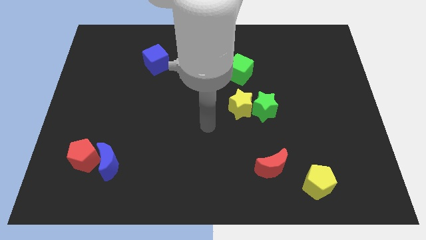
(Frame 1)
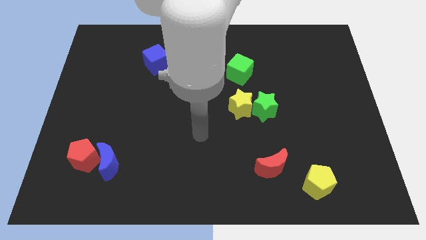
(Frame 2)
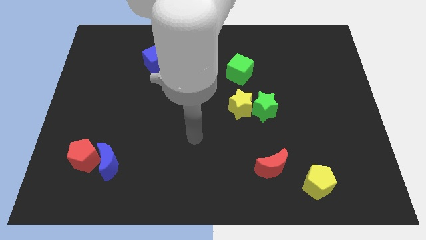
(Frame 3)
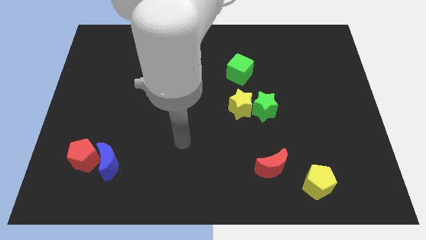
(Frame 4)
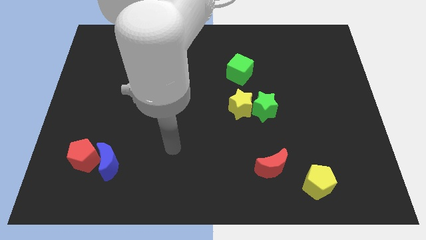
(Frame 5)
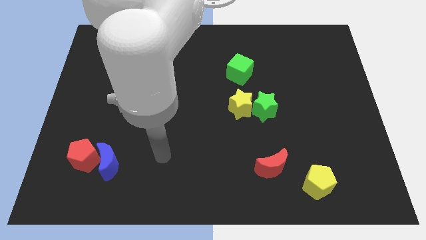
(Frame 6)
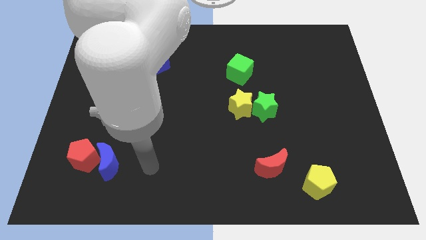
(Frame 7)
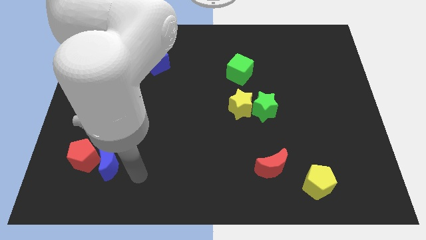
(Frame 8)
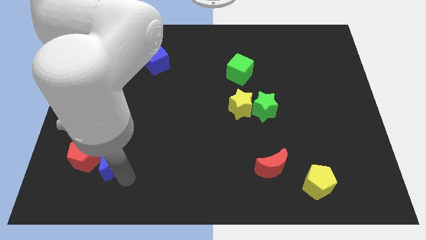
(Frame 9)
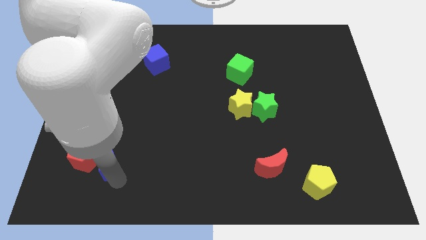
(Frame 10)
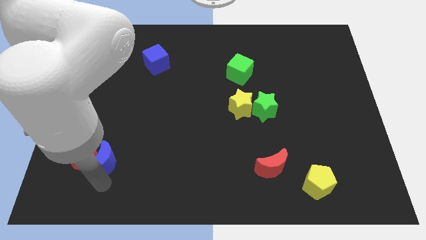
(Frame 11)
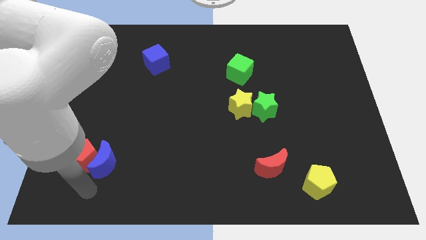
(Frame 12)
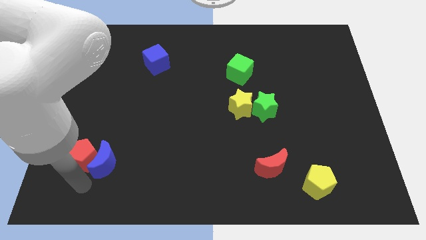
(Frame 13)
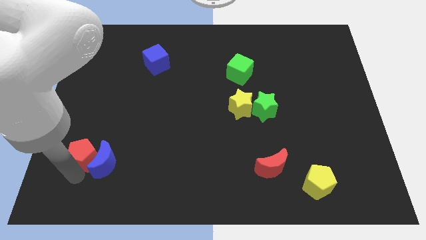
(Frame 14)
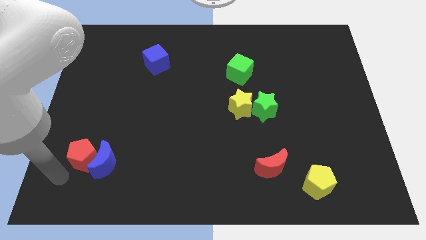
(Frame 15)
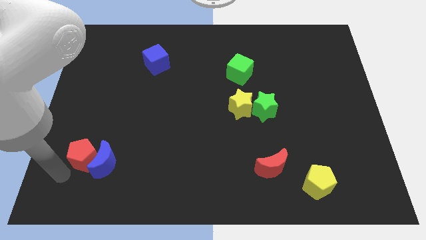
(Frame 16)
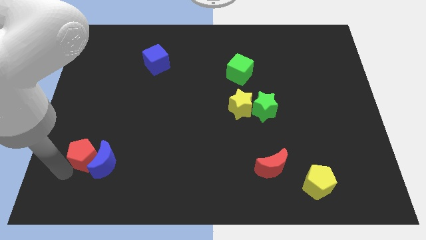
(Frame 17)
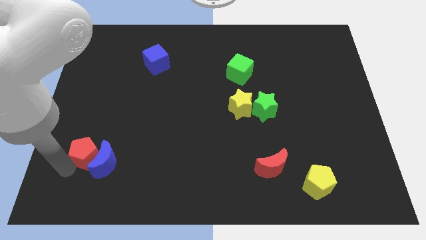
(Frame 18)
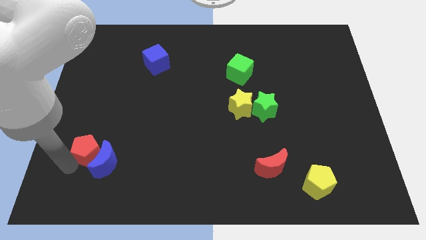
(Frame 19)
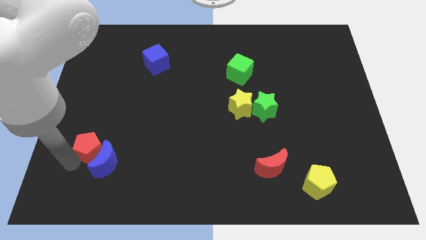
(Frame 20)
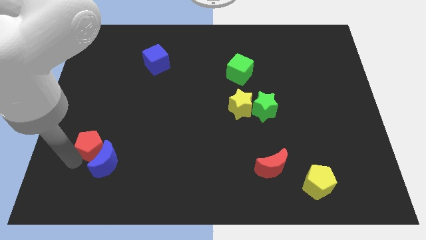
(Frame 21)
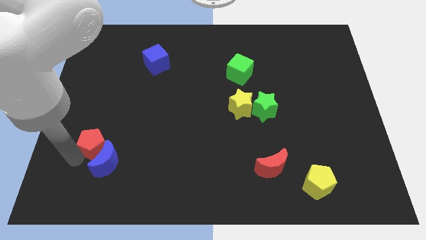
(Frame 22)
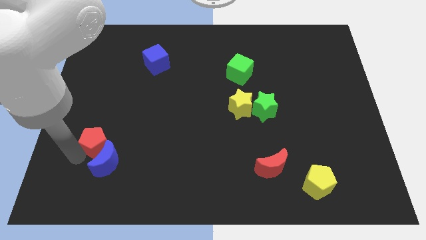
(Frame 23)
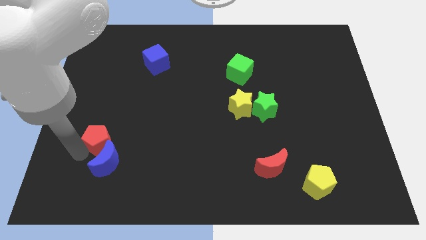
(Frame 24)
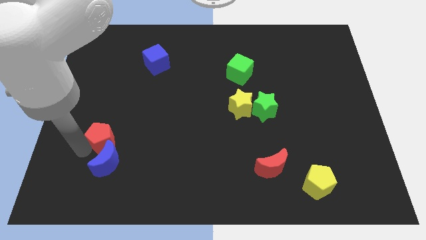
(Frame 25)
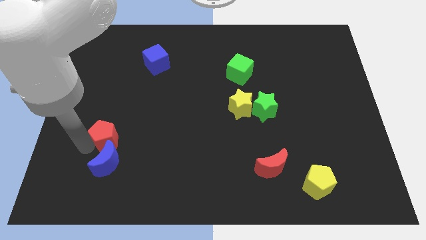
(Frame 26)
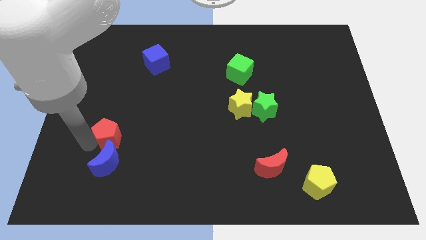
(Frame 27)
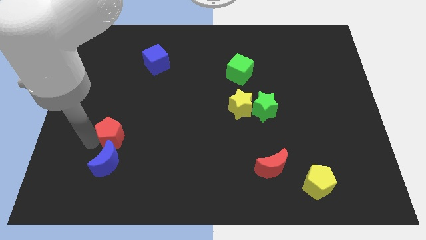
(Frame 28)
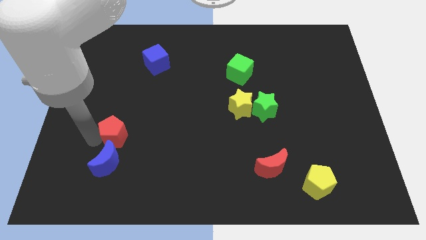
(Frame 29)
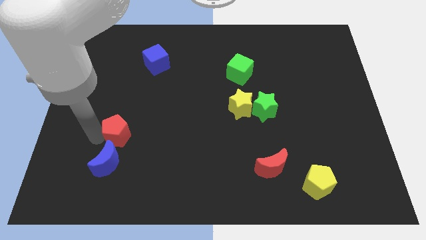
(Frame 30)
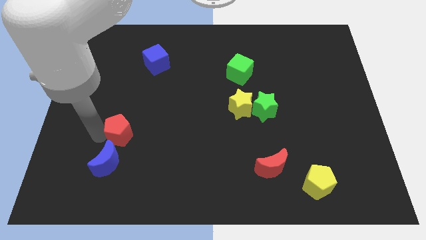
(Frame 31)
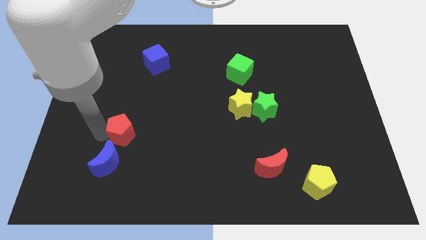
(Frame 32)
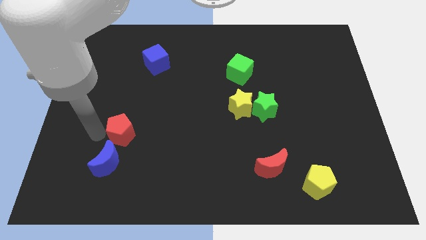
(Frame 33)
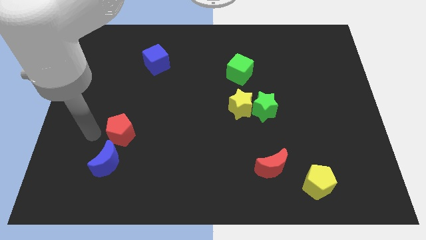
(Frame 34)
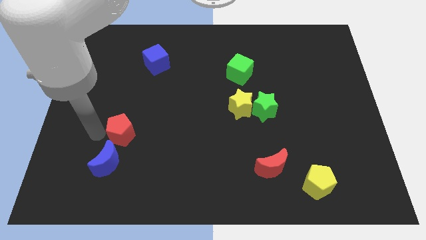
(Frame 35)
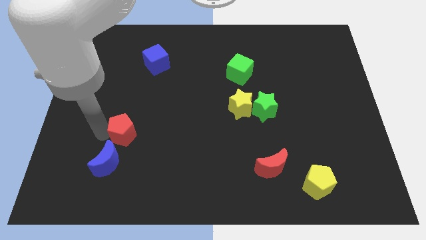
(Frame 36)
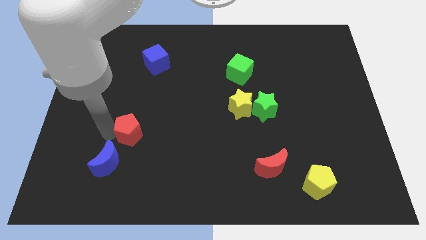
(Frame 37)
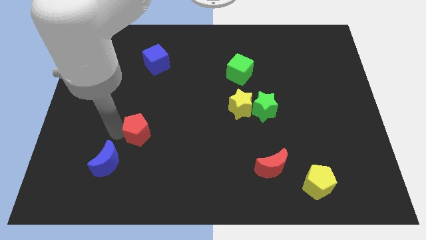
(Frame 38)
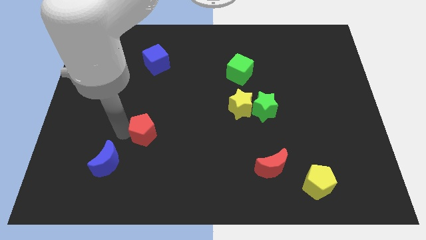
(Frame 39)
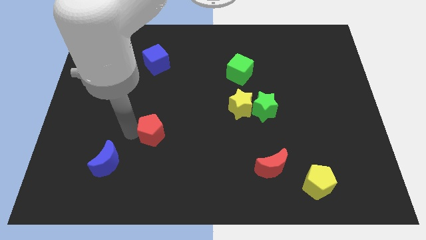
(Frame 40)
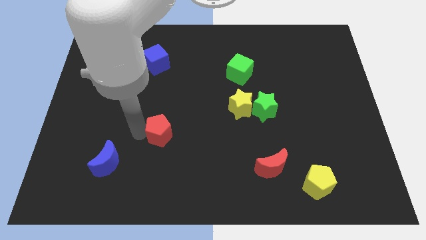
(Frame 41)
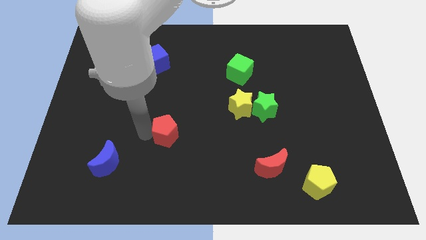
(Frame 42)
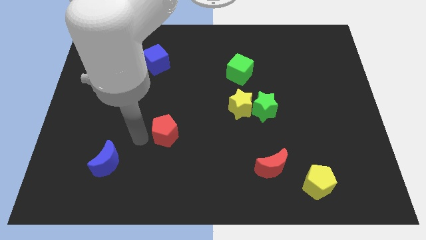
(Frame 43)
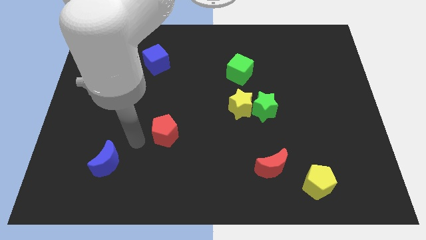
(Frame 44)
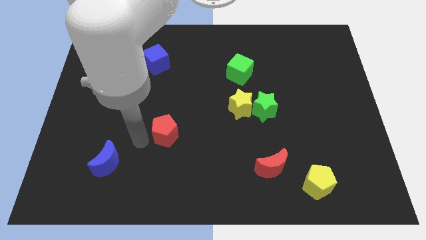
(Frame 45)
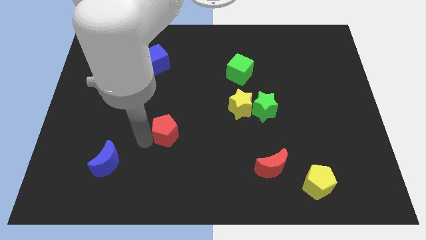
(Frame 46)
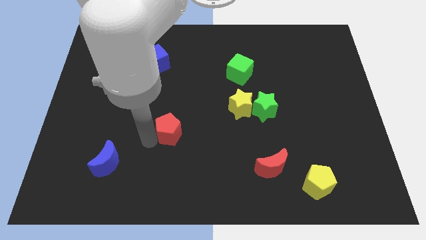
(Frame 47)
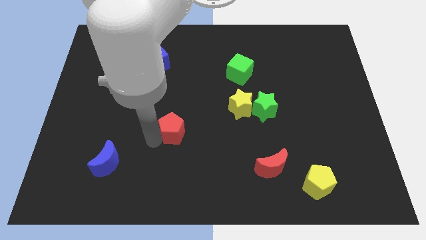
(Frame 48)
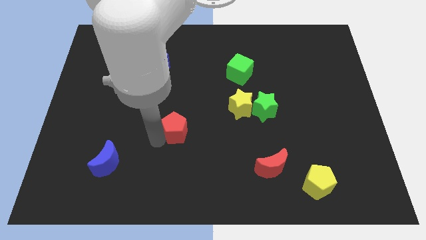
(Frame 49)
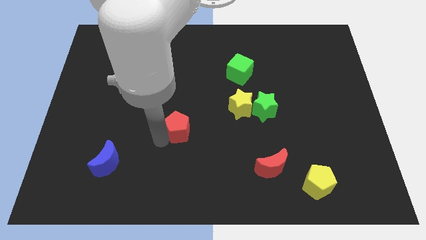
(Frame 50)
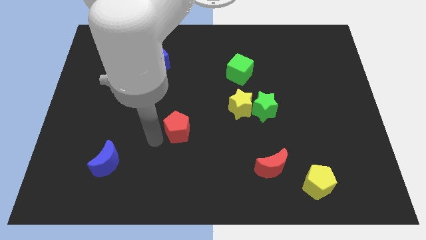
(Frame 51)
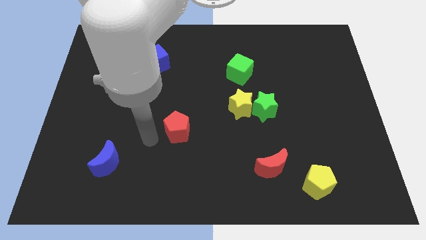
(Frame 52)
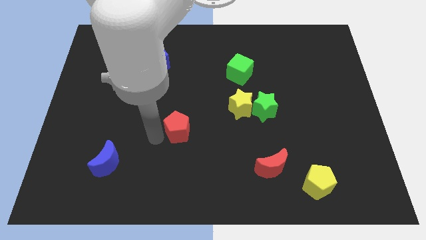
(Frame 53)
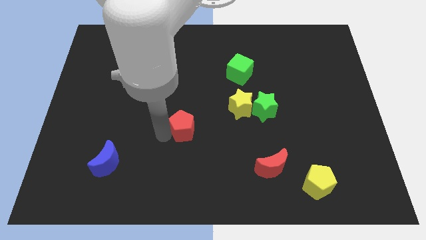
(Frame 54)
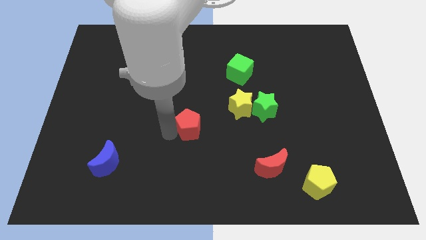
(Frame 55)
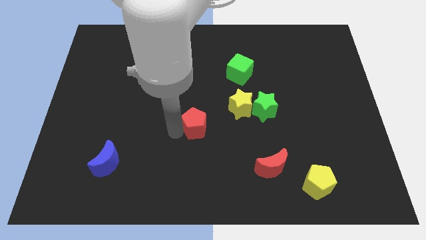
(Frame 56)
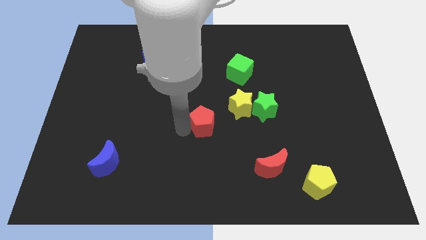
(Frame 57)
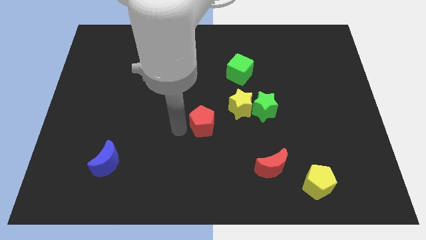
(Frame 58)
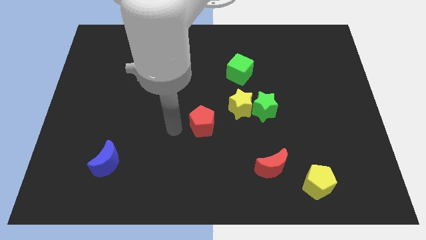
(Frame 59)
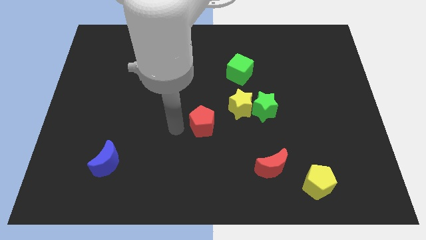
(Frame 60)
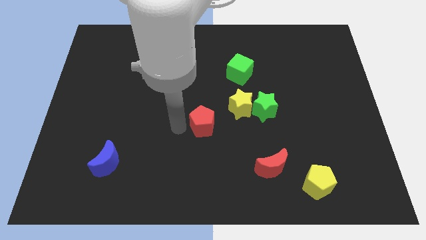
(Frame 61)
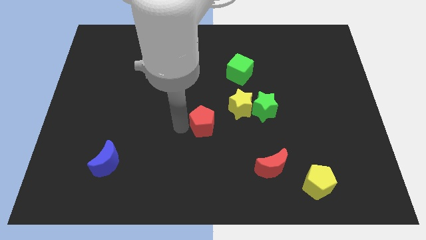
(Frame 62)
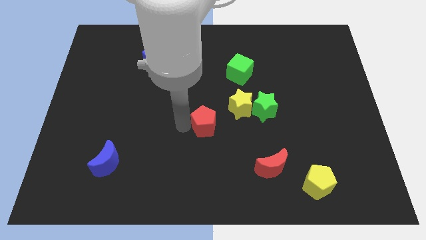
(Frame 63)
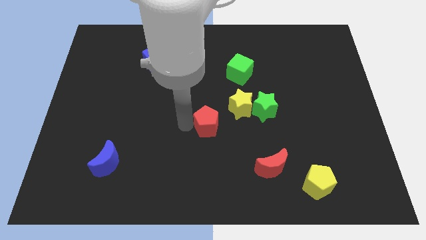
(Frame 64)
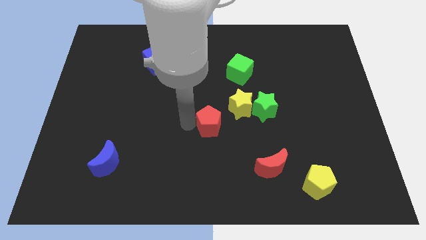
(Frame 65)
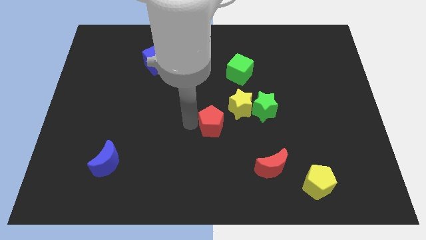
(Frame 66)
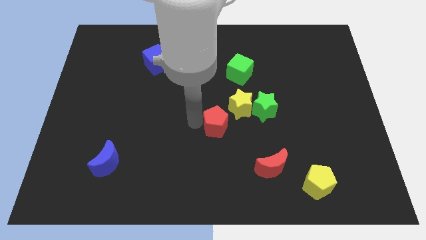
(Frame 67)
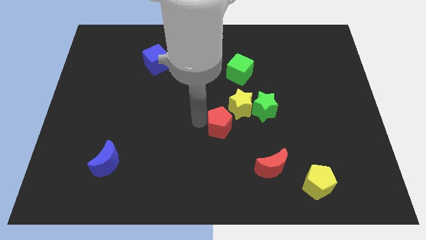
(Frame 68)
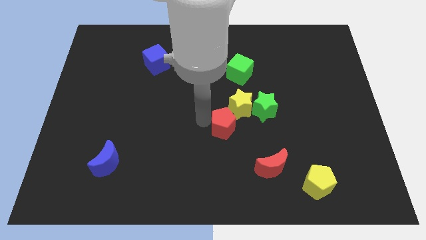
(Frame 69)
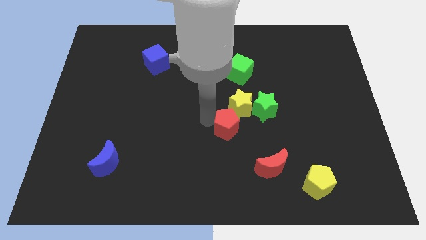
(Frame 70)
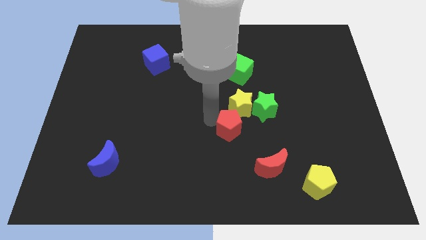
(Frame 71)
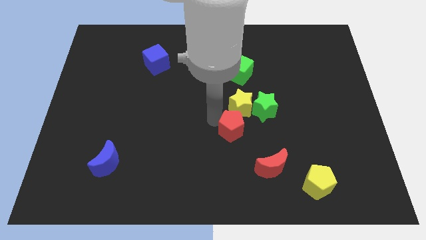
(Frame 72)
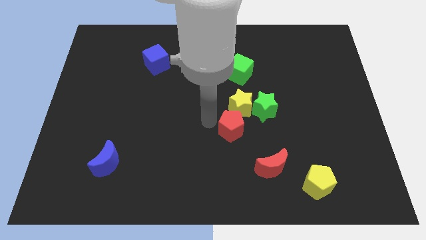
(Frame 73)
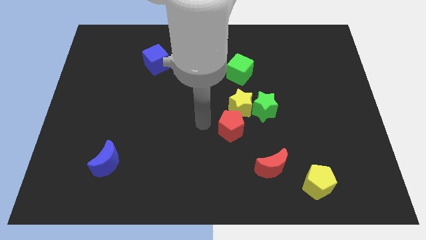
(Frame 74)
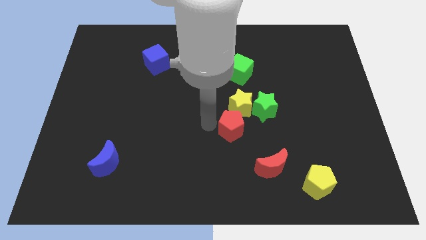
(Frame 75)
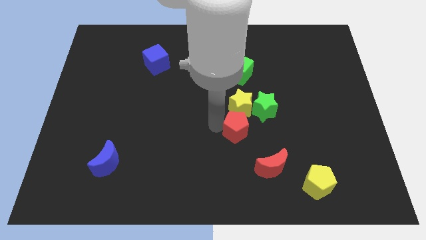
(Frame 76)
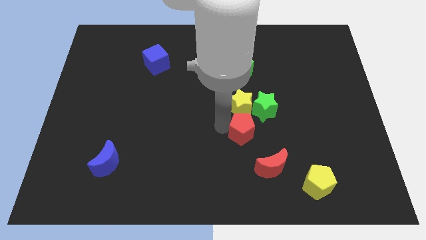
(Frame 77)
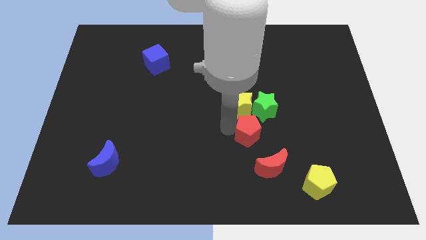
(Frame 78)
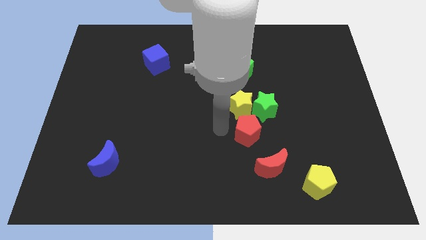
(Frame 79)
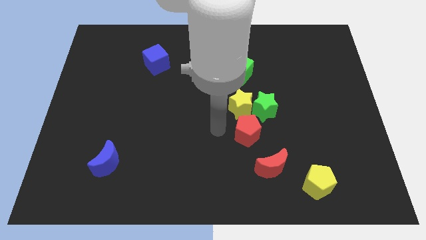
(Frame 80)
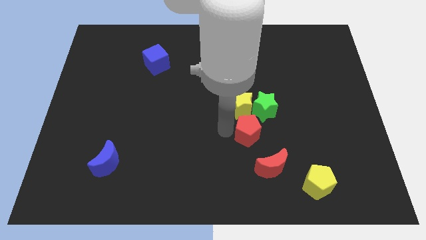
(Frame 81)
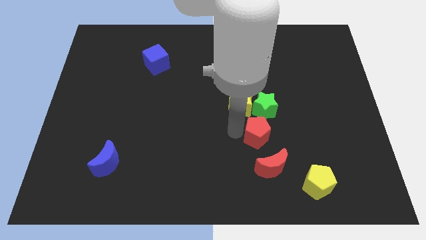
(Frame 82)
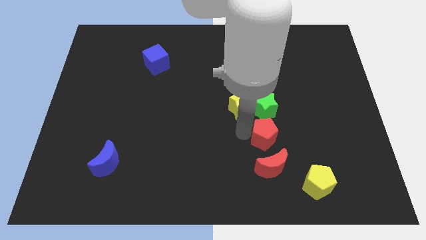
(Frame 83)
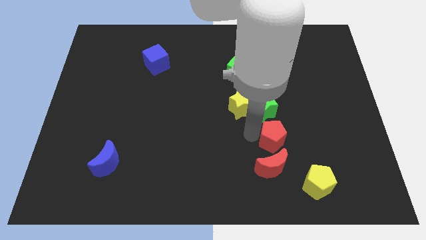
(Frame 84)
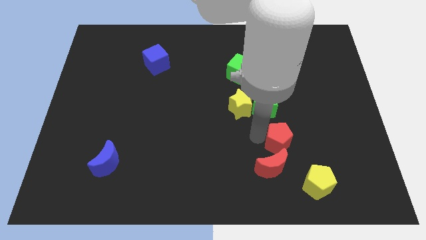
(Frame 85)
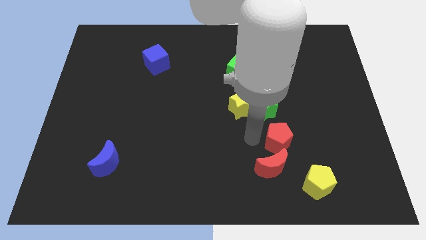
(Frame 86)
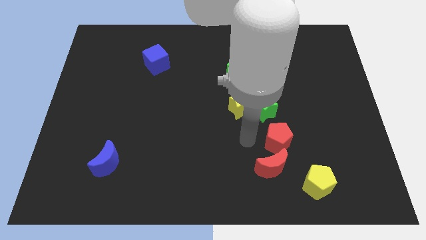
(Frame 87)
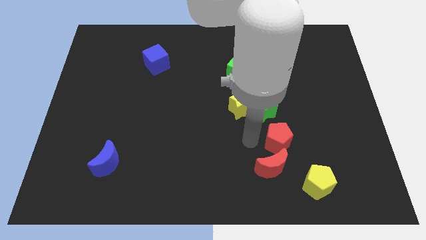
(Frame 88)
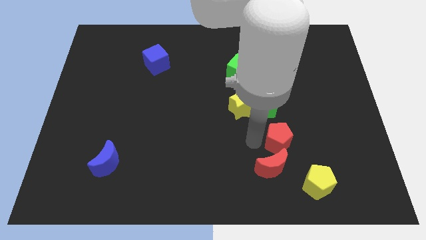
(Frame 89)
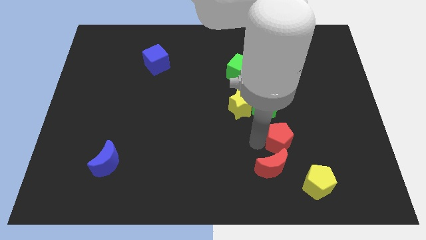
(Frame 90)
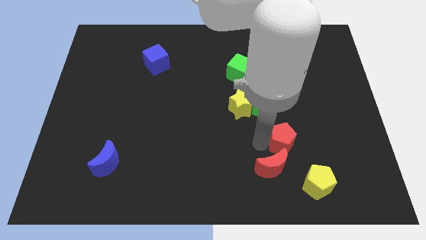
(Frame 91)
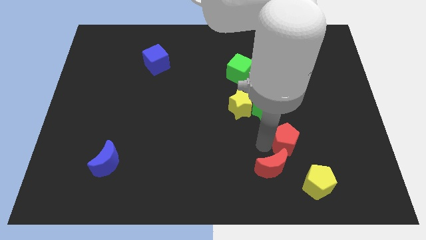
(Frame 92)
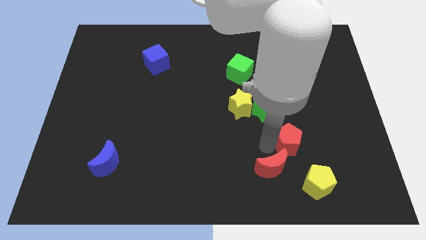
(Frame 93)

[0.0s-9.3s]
put the red pentagon to the top of the yellow pentagon
